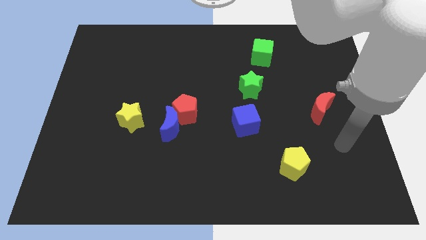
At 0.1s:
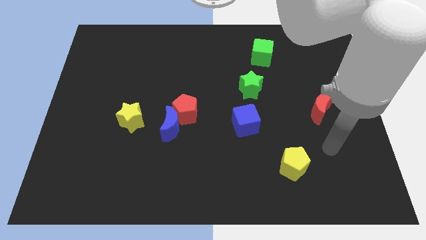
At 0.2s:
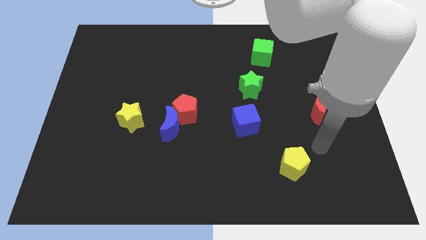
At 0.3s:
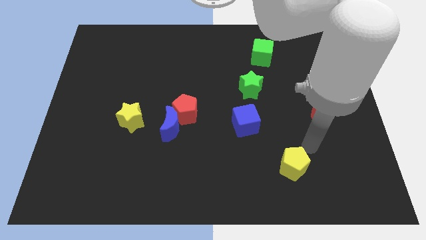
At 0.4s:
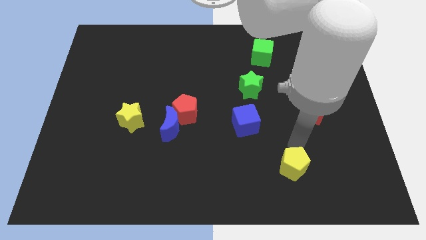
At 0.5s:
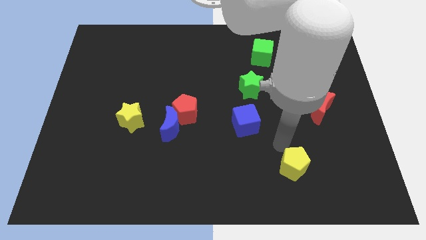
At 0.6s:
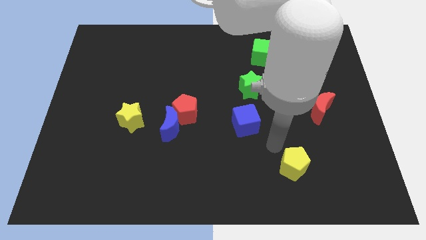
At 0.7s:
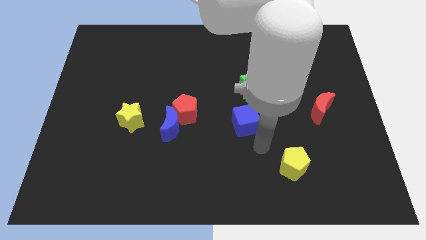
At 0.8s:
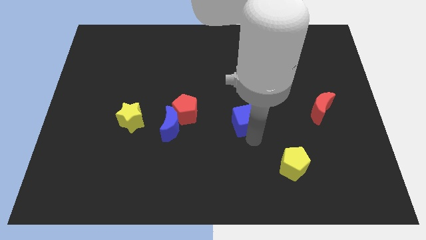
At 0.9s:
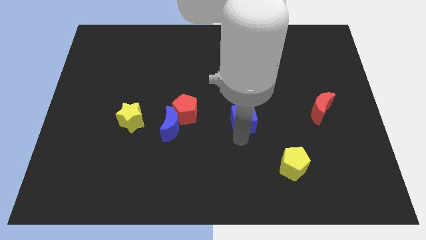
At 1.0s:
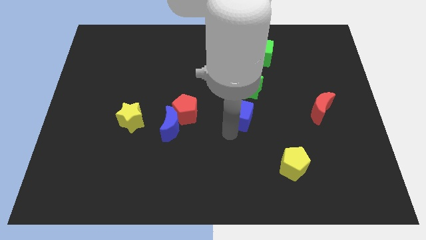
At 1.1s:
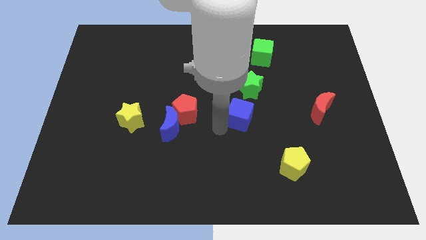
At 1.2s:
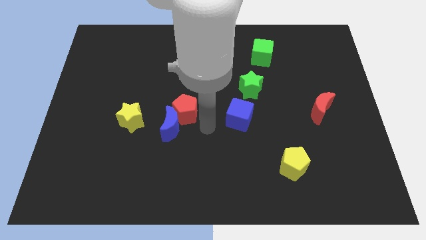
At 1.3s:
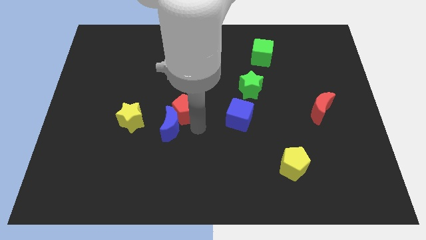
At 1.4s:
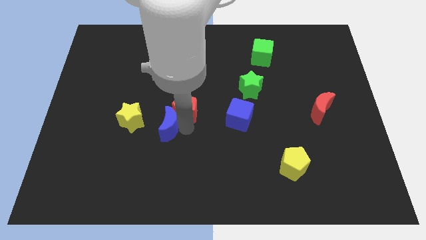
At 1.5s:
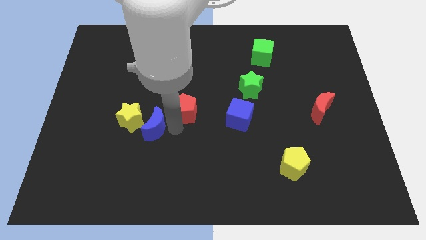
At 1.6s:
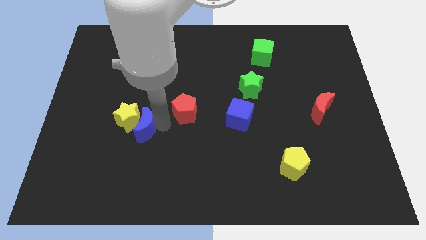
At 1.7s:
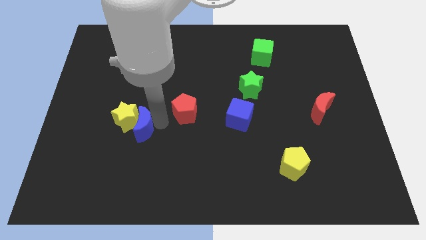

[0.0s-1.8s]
pull the red pentagon apart from the blue moon

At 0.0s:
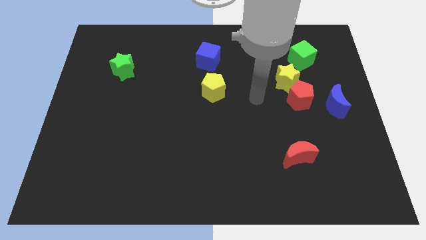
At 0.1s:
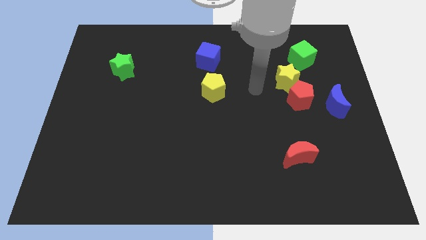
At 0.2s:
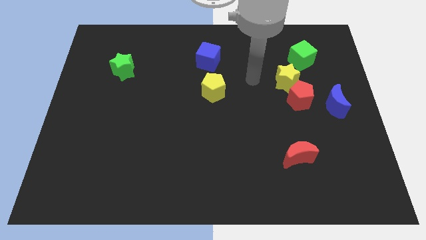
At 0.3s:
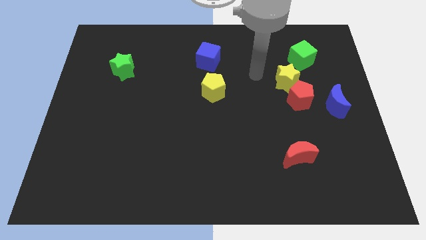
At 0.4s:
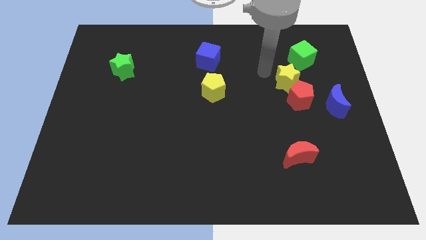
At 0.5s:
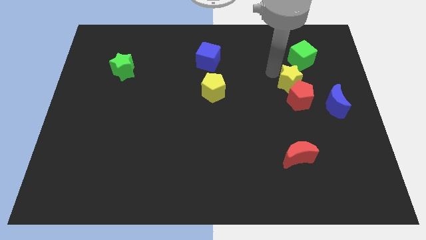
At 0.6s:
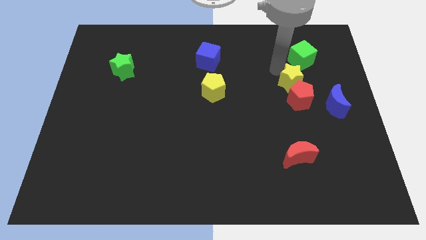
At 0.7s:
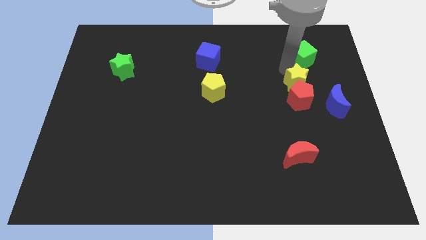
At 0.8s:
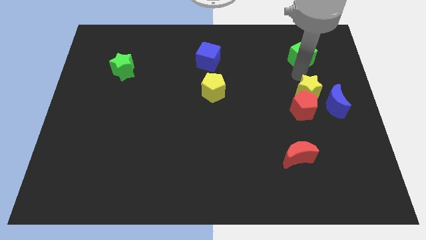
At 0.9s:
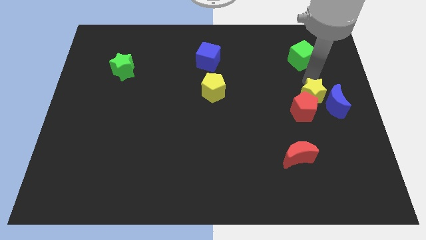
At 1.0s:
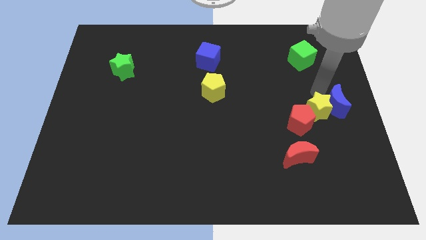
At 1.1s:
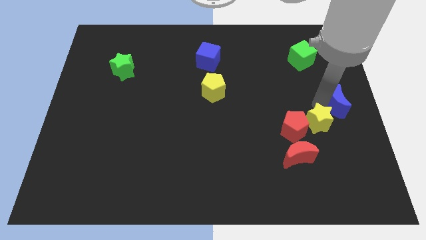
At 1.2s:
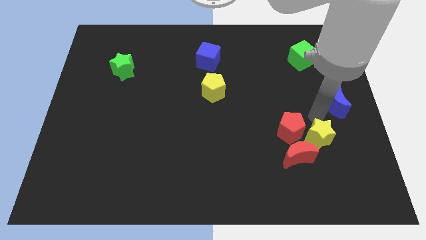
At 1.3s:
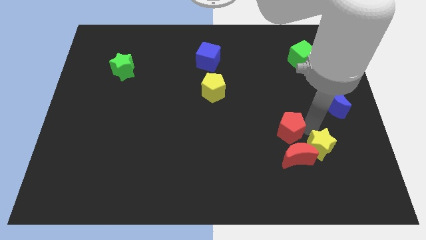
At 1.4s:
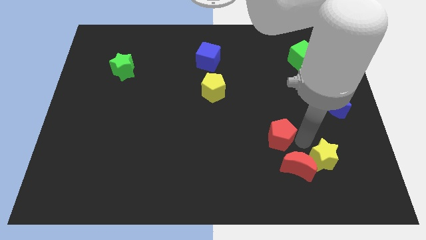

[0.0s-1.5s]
pull the red pentagon apart from the yellow star and blue moon

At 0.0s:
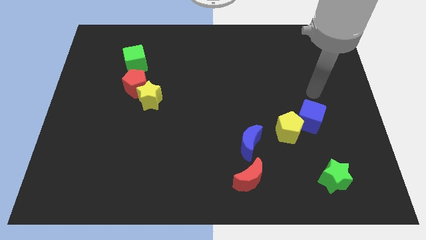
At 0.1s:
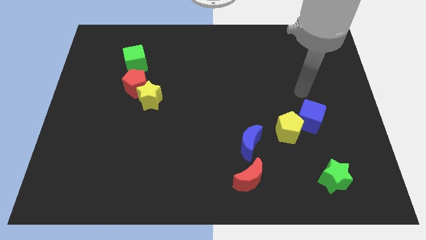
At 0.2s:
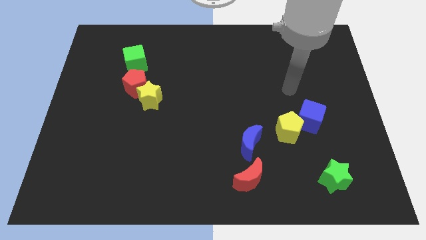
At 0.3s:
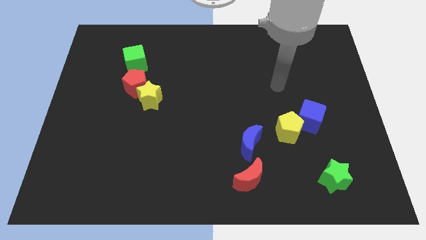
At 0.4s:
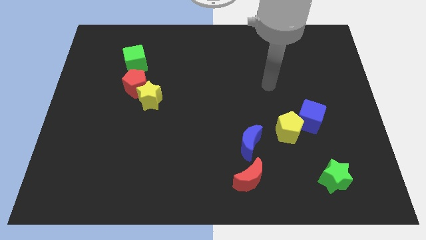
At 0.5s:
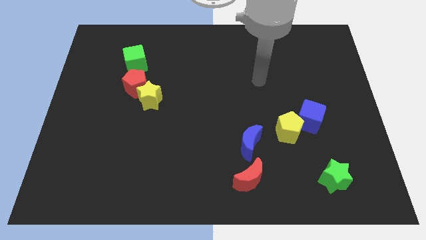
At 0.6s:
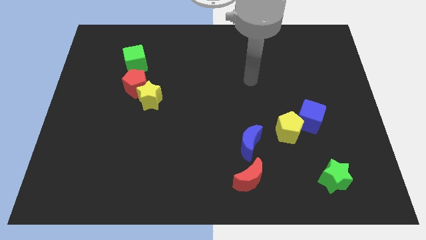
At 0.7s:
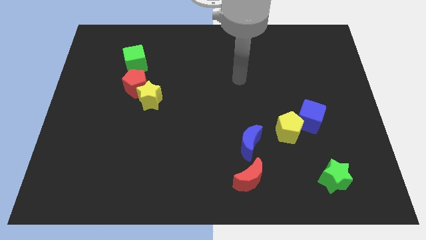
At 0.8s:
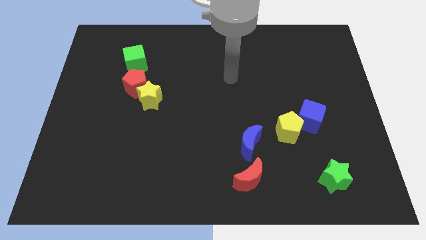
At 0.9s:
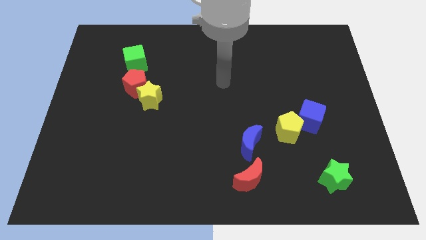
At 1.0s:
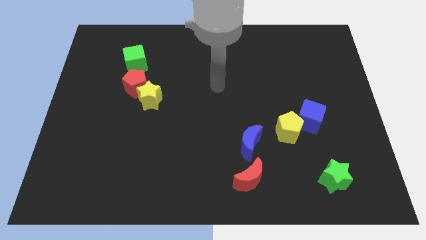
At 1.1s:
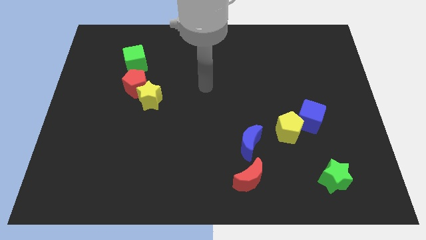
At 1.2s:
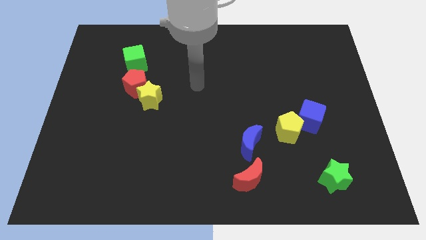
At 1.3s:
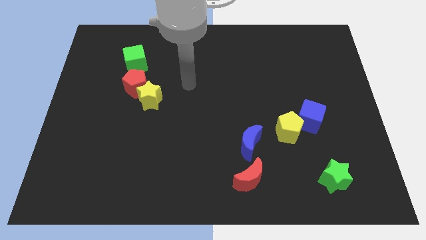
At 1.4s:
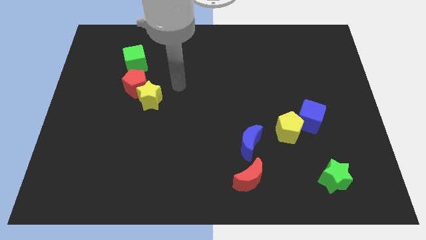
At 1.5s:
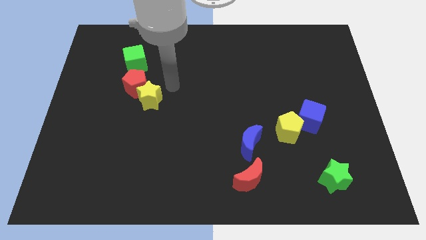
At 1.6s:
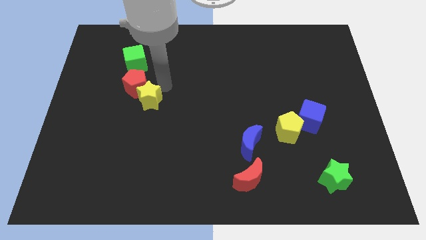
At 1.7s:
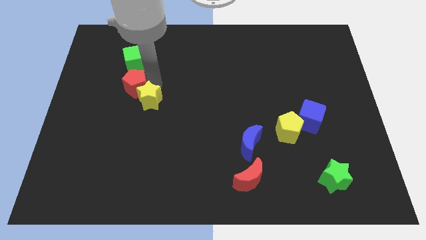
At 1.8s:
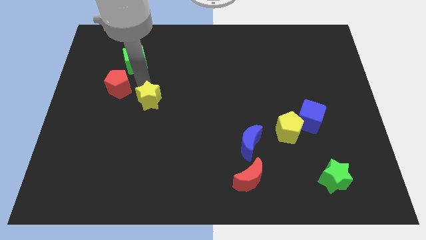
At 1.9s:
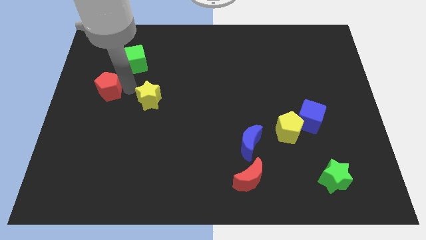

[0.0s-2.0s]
pull the yellow star apart from the red pentagon

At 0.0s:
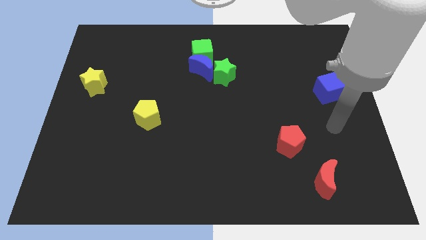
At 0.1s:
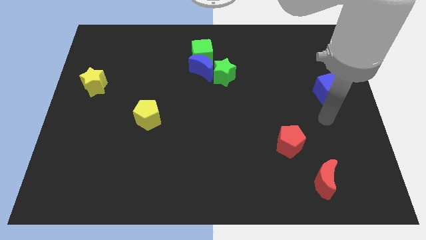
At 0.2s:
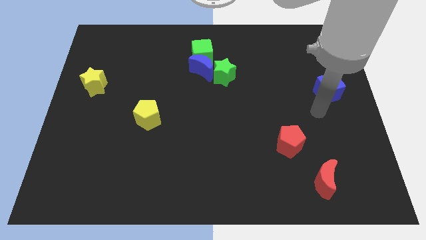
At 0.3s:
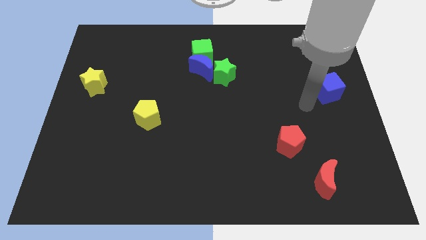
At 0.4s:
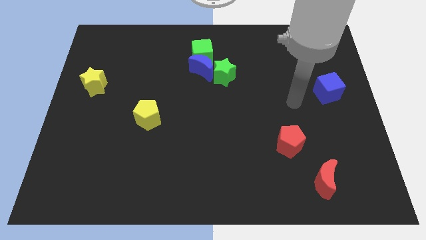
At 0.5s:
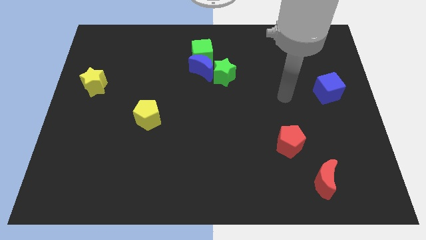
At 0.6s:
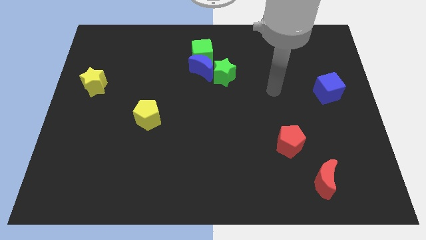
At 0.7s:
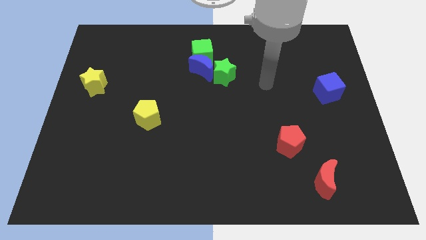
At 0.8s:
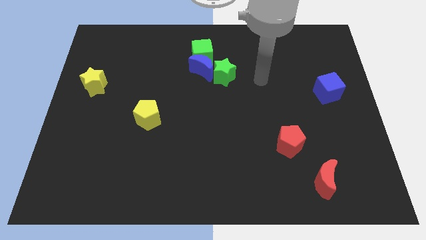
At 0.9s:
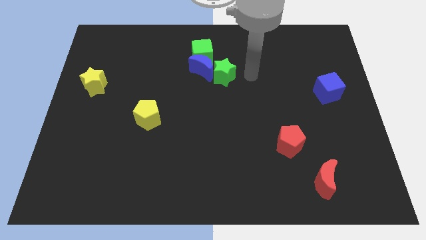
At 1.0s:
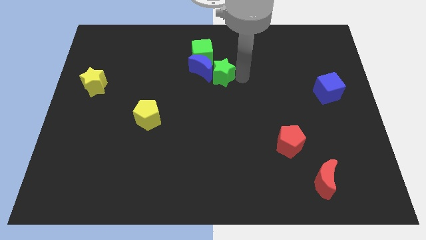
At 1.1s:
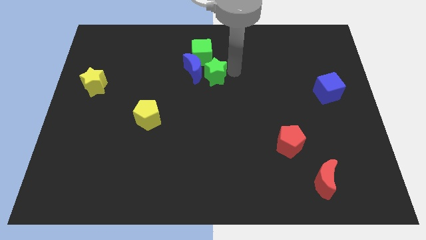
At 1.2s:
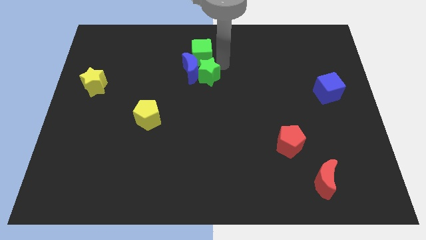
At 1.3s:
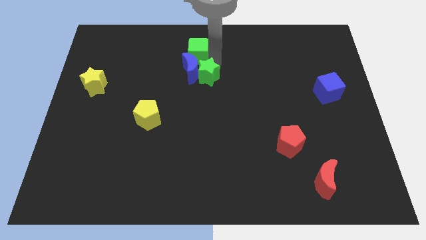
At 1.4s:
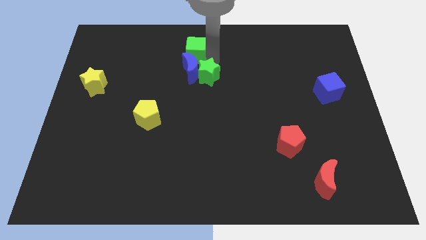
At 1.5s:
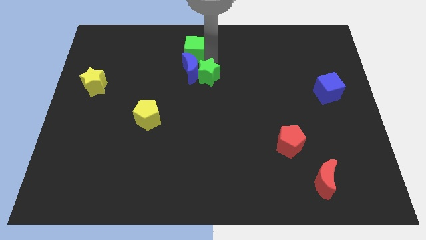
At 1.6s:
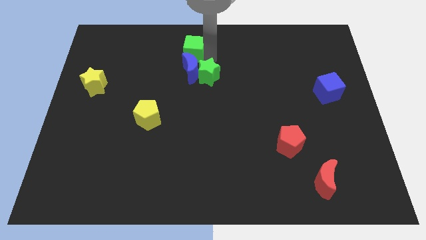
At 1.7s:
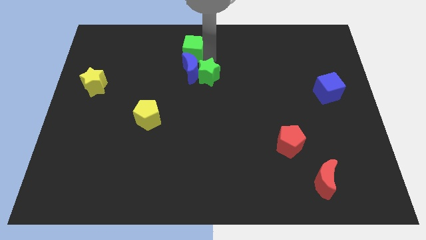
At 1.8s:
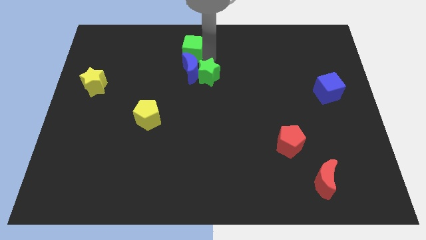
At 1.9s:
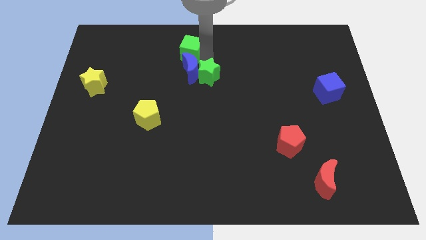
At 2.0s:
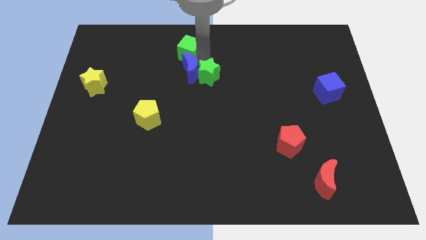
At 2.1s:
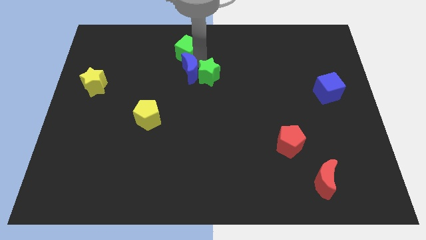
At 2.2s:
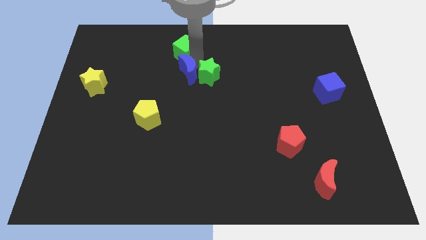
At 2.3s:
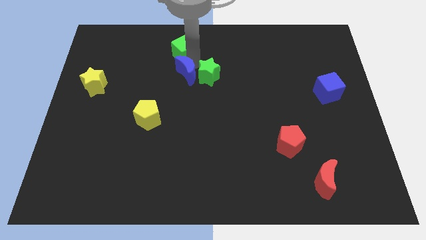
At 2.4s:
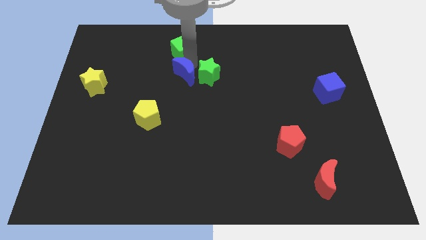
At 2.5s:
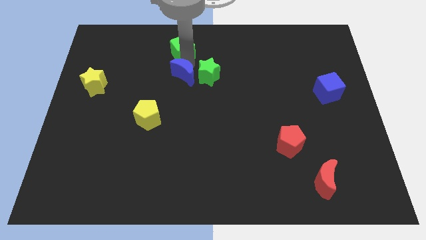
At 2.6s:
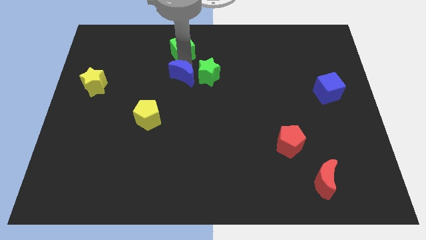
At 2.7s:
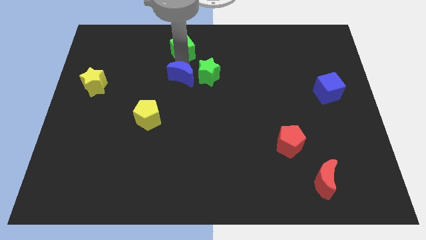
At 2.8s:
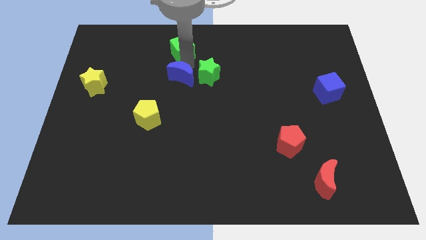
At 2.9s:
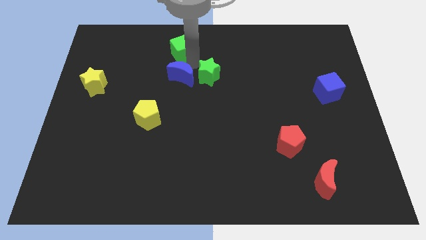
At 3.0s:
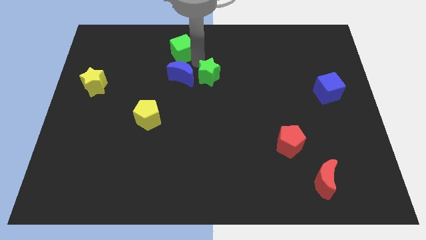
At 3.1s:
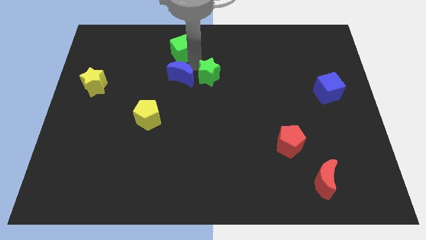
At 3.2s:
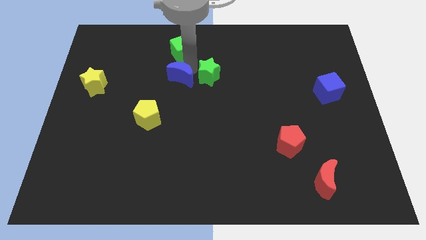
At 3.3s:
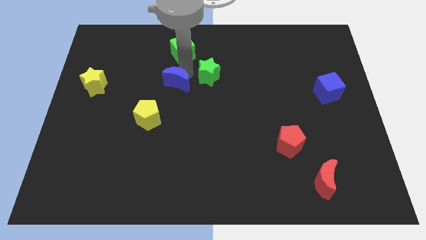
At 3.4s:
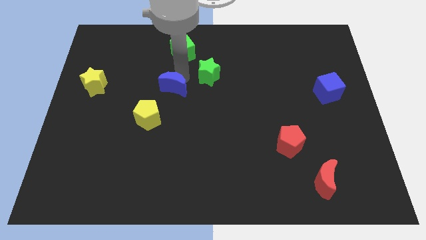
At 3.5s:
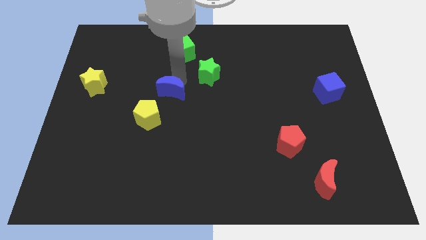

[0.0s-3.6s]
move the blue moon away from the green cube and green star

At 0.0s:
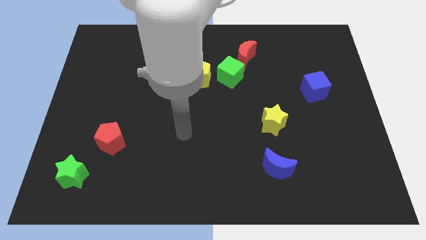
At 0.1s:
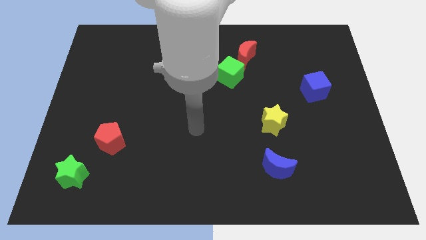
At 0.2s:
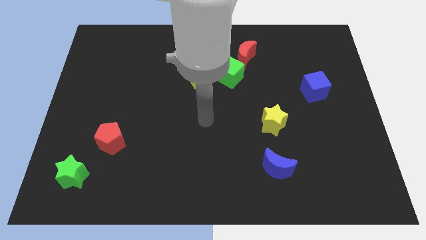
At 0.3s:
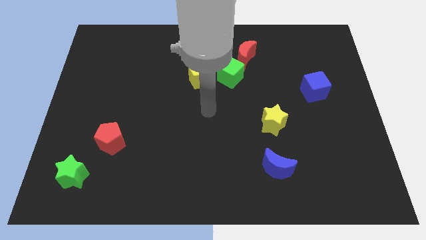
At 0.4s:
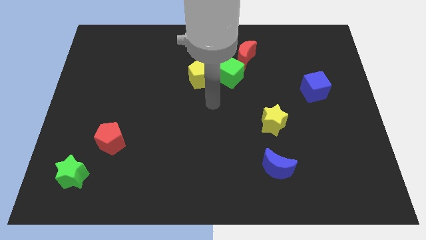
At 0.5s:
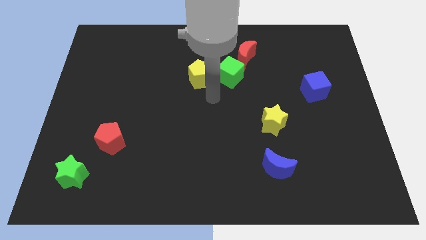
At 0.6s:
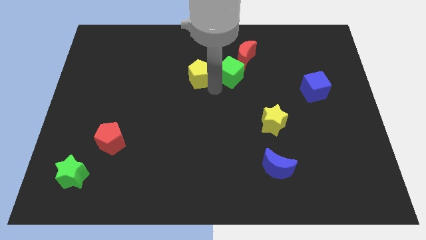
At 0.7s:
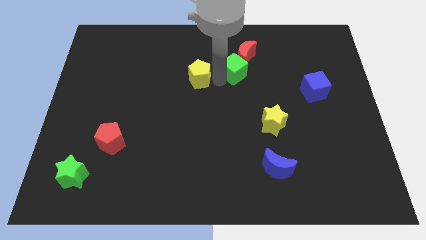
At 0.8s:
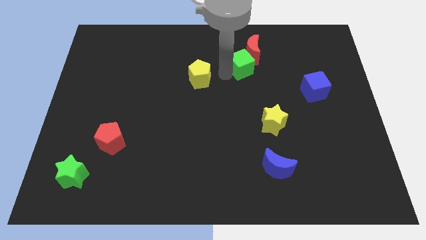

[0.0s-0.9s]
pull the yellow pentagon apart from the green cube
